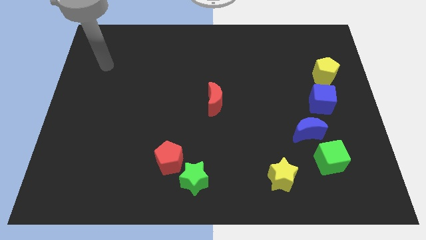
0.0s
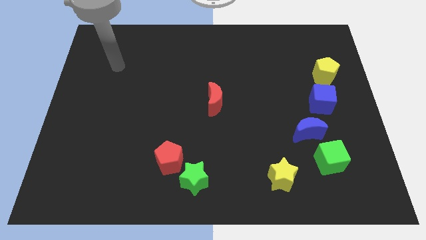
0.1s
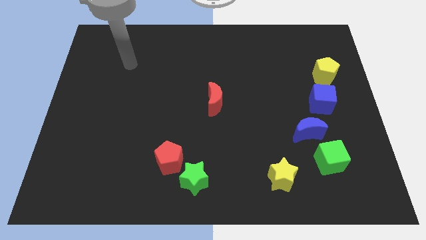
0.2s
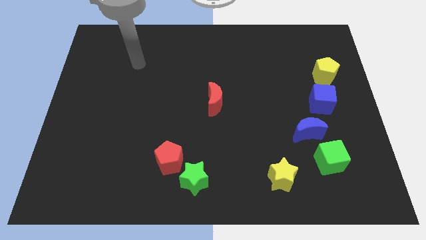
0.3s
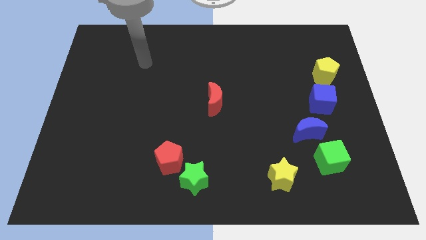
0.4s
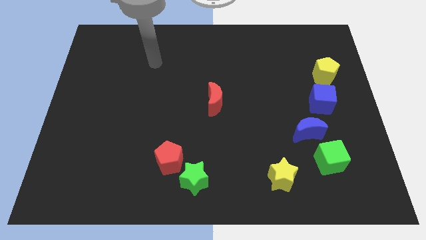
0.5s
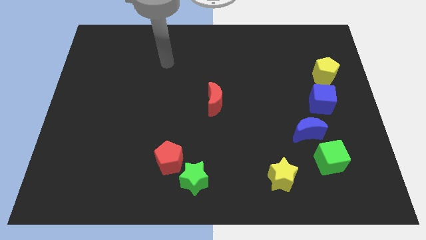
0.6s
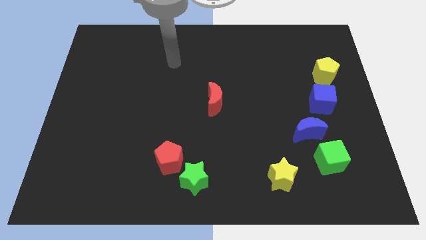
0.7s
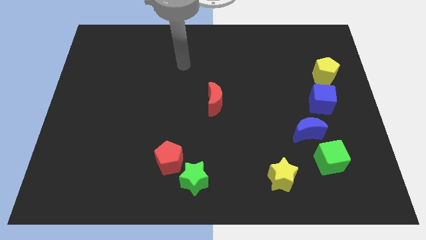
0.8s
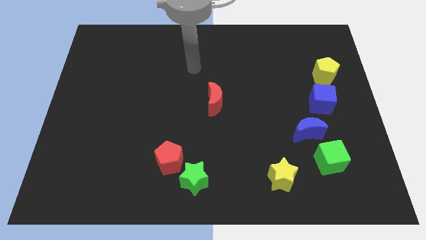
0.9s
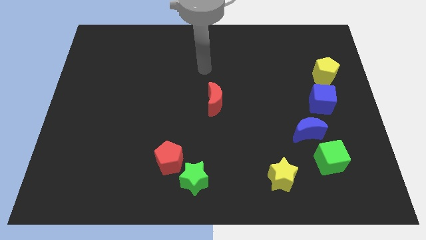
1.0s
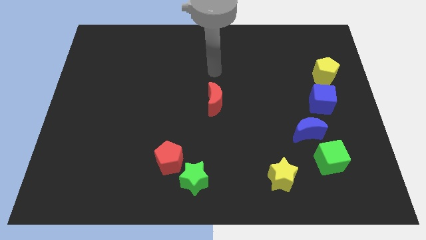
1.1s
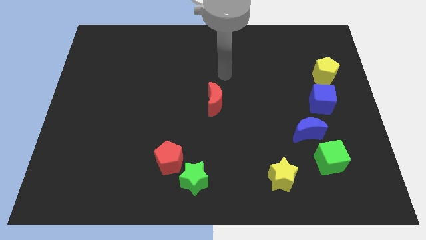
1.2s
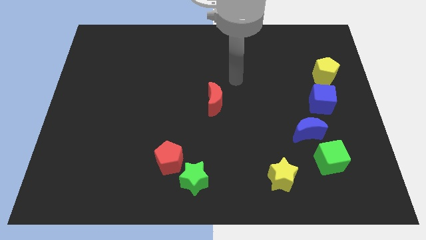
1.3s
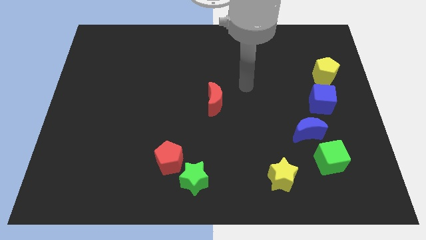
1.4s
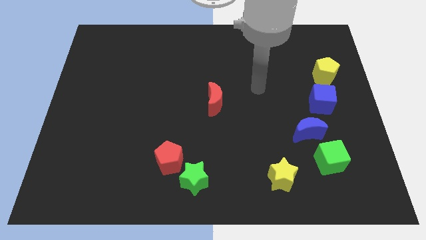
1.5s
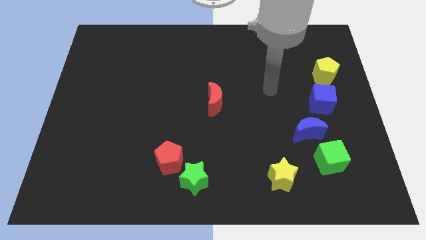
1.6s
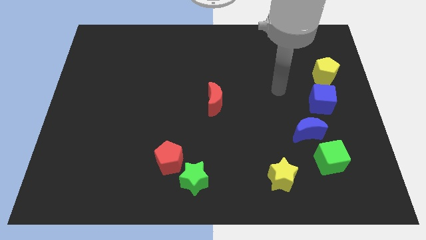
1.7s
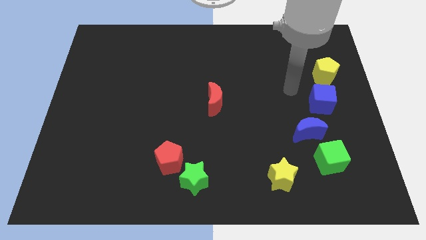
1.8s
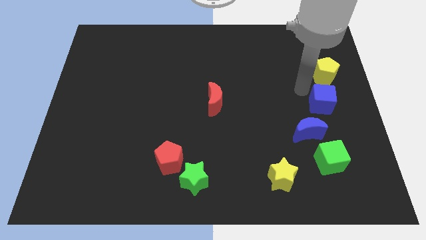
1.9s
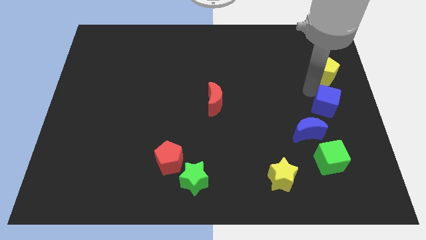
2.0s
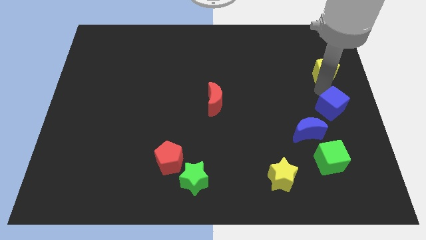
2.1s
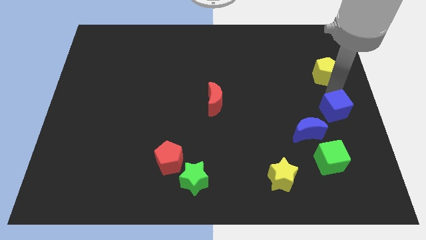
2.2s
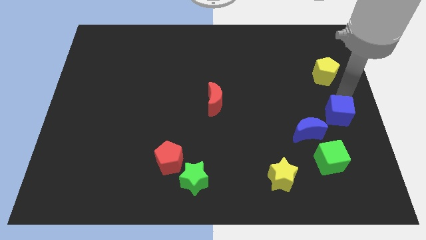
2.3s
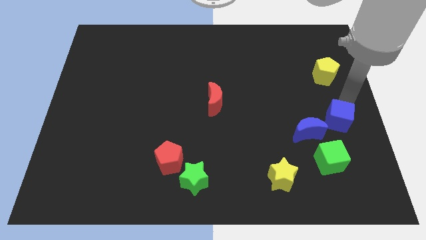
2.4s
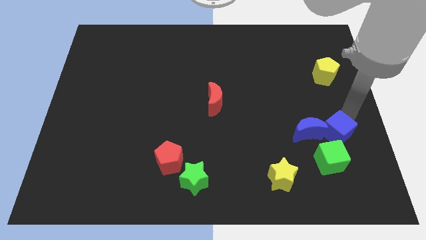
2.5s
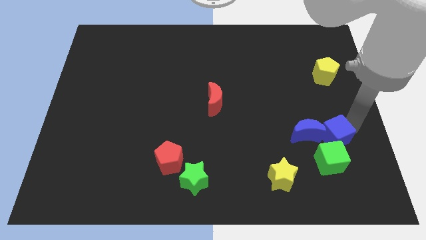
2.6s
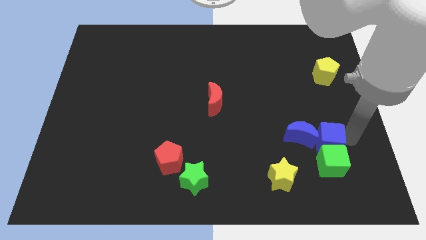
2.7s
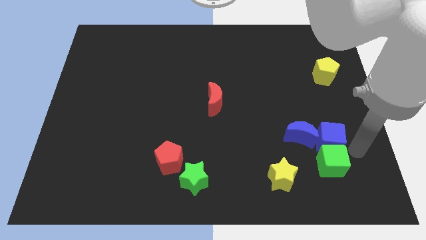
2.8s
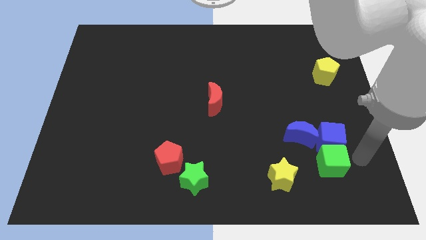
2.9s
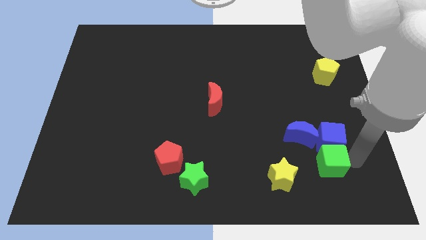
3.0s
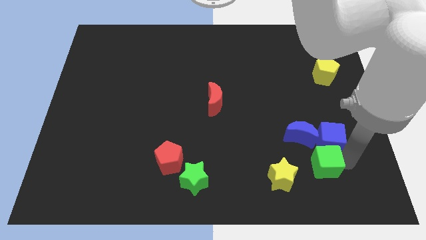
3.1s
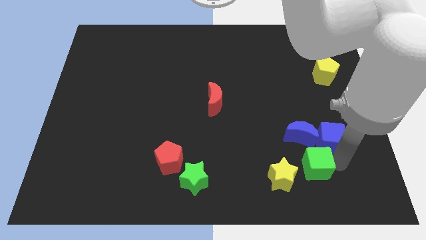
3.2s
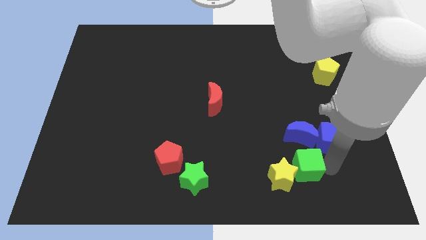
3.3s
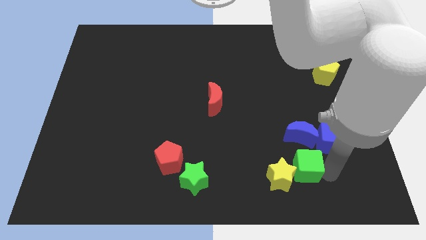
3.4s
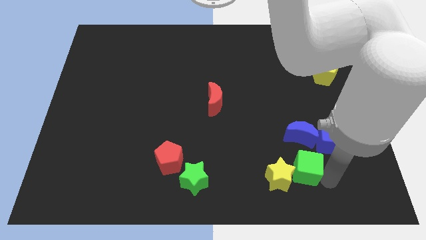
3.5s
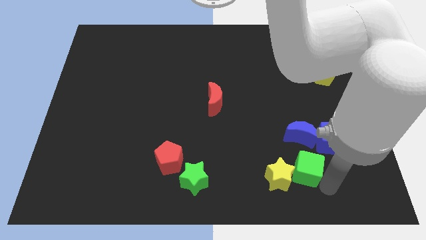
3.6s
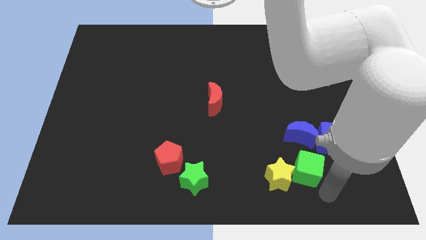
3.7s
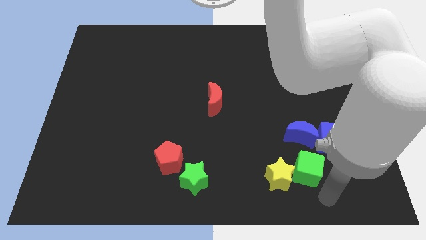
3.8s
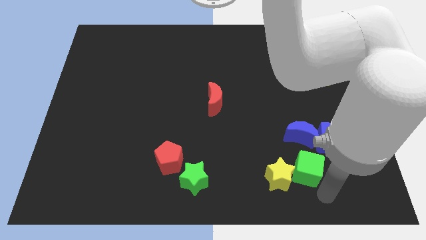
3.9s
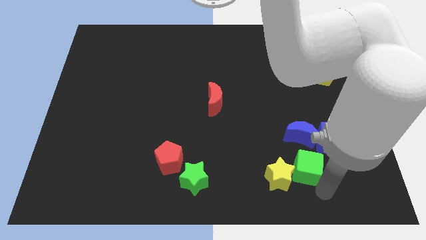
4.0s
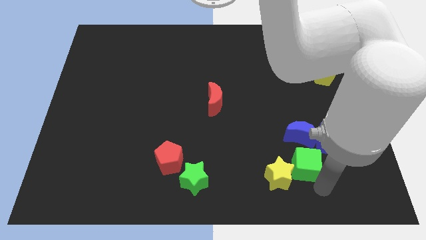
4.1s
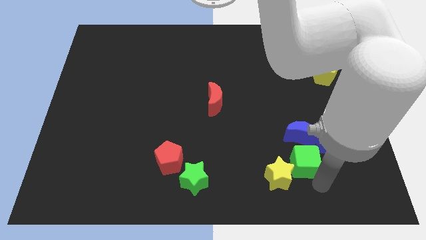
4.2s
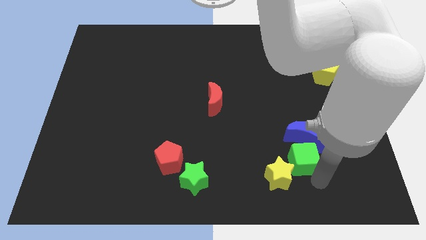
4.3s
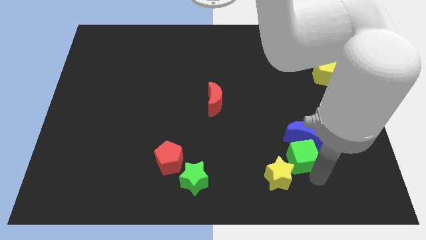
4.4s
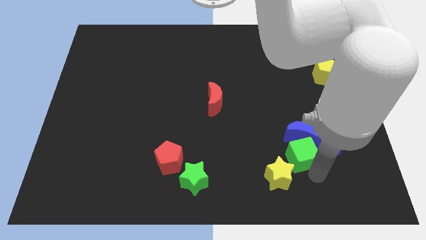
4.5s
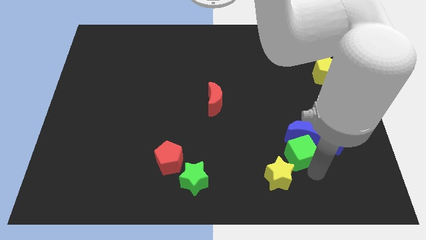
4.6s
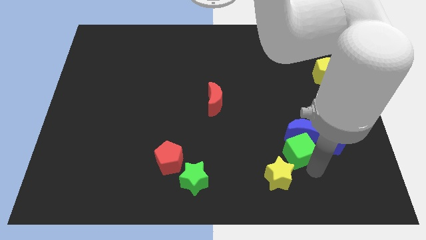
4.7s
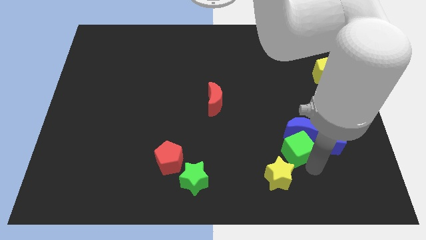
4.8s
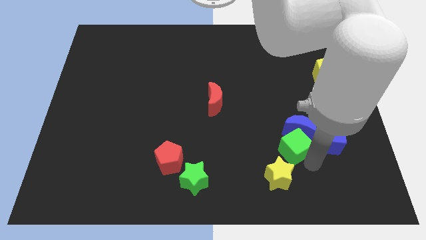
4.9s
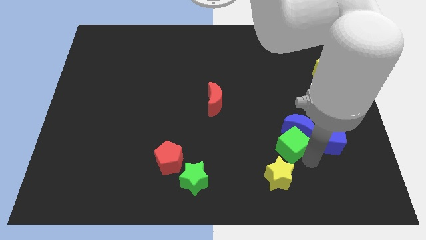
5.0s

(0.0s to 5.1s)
push the green cube up and left diagonally slightly

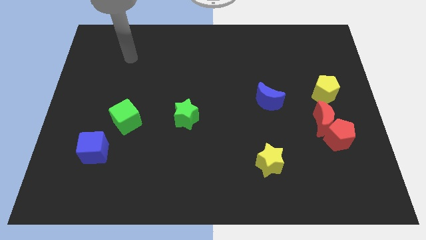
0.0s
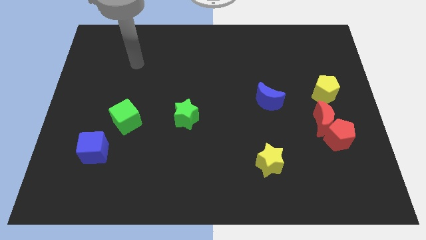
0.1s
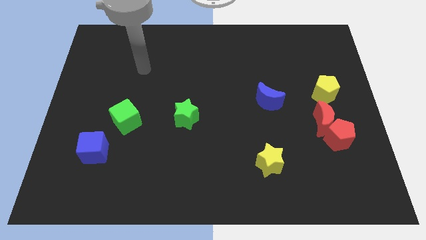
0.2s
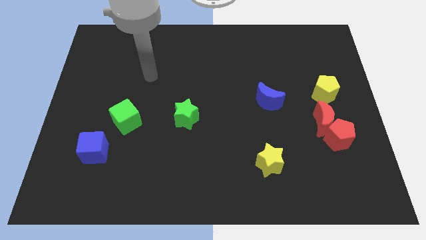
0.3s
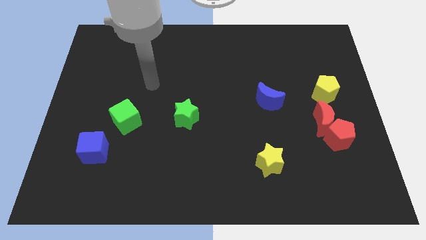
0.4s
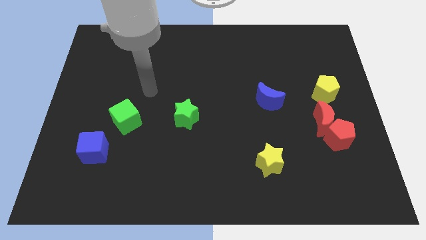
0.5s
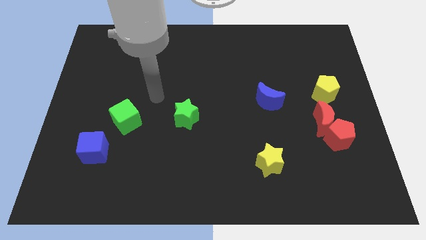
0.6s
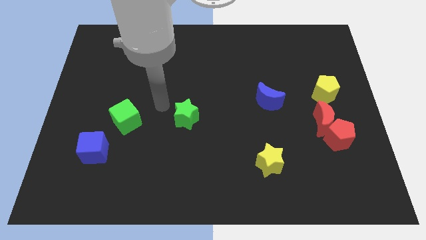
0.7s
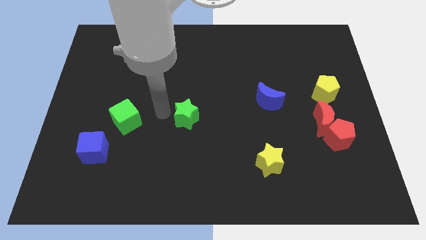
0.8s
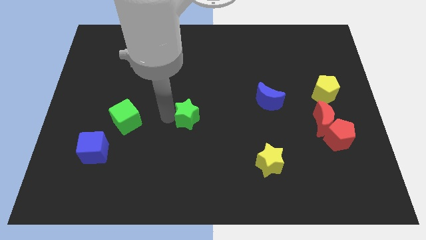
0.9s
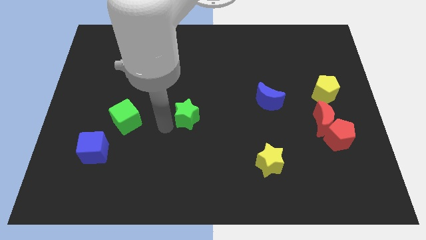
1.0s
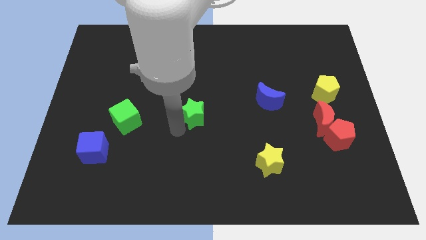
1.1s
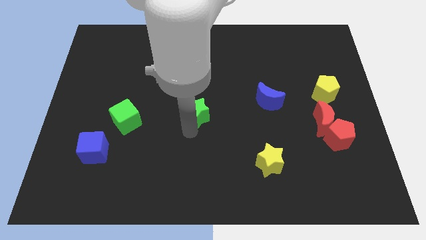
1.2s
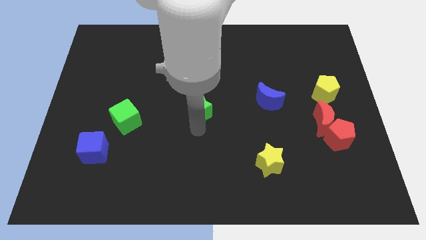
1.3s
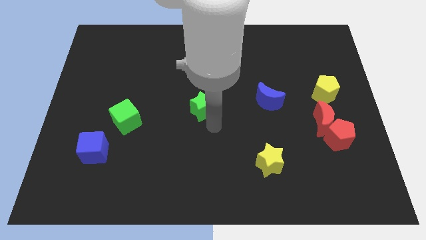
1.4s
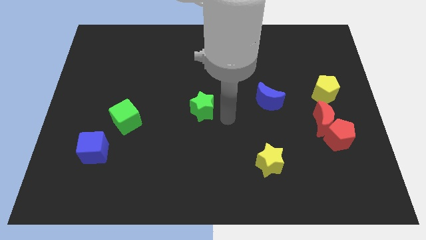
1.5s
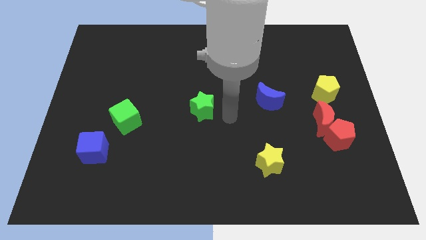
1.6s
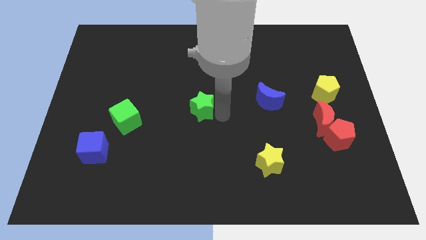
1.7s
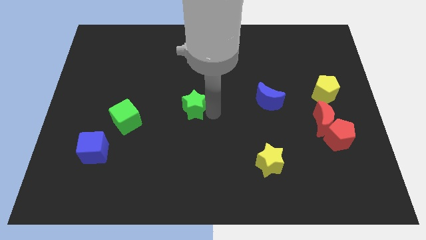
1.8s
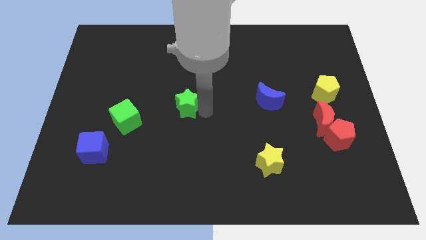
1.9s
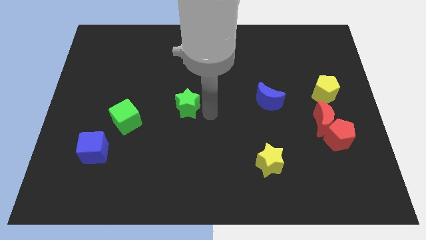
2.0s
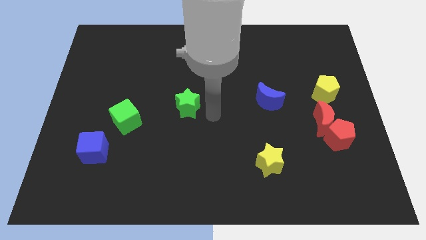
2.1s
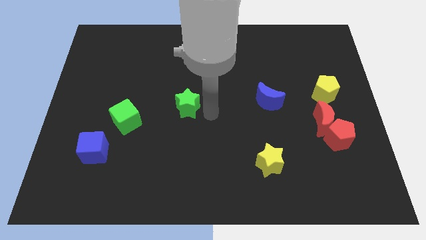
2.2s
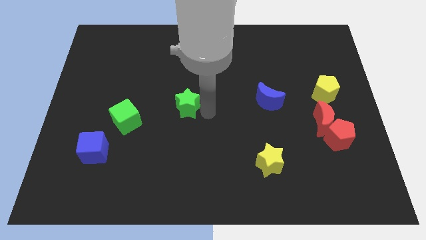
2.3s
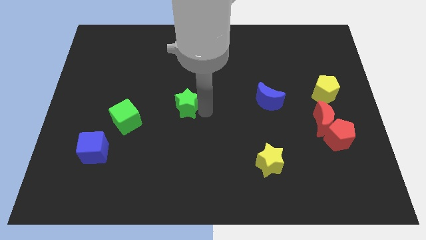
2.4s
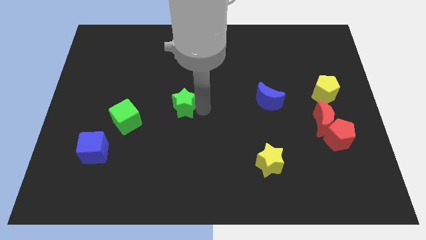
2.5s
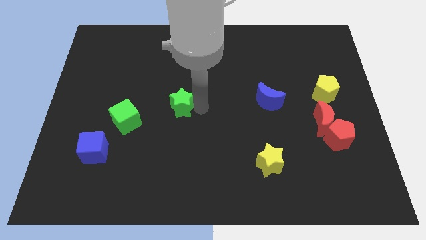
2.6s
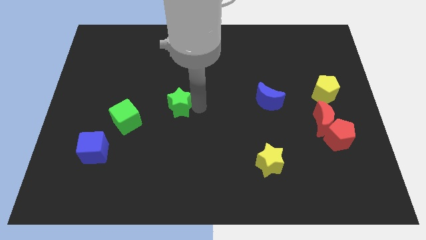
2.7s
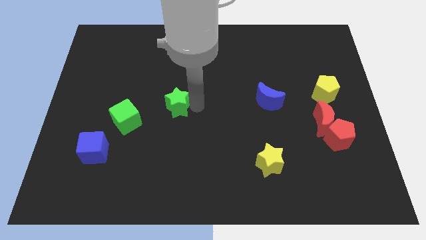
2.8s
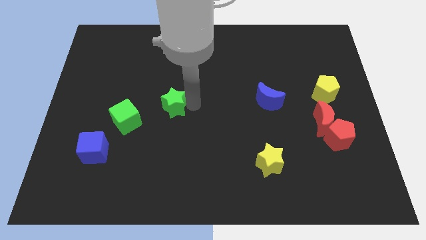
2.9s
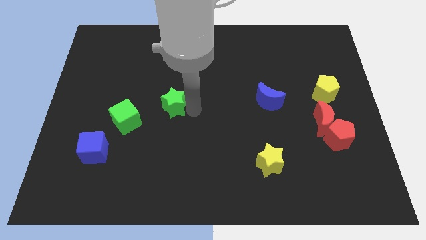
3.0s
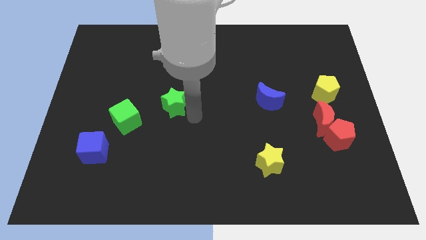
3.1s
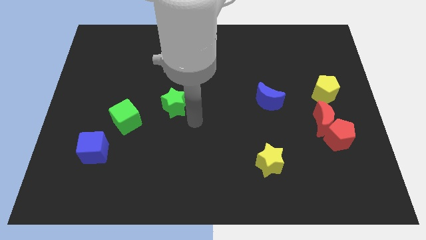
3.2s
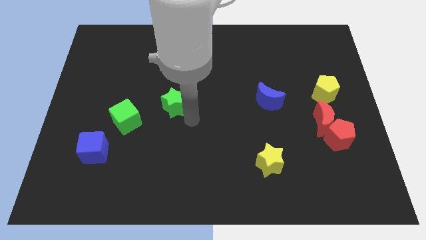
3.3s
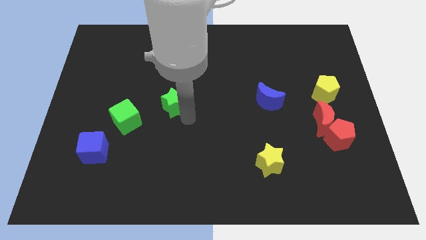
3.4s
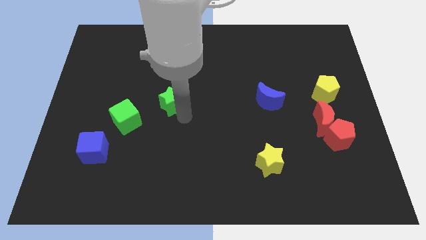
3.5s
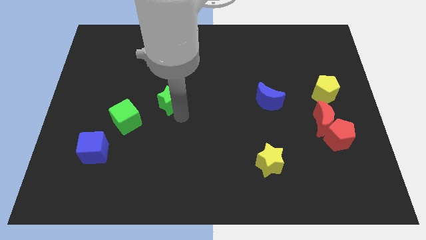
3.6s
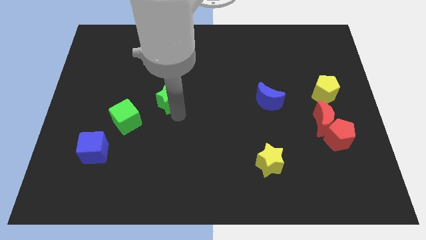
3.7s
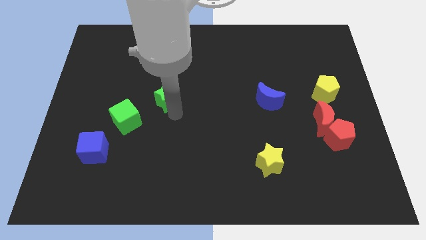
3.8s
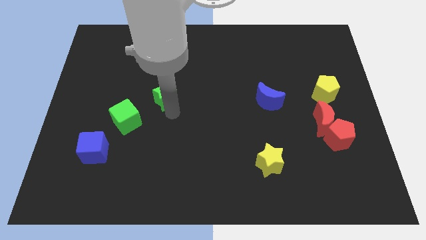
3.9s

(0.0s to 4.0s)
slide the green star somewhat up and to the left diagonally
